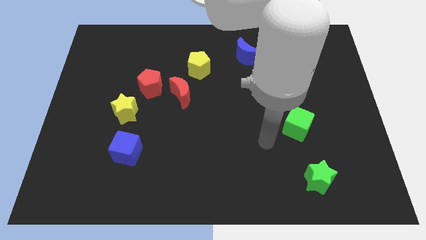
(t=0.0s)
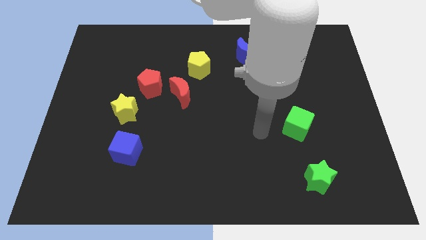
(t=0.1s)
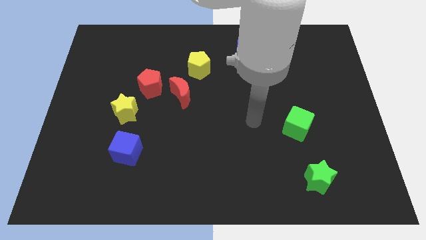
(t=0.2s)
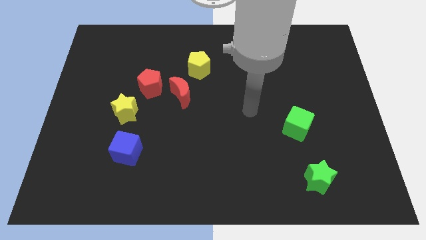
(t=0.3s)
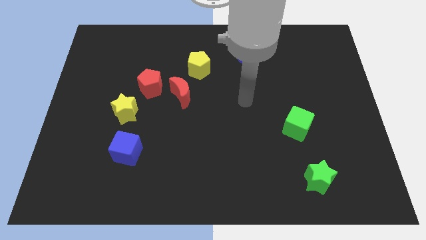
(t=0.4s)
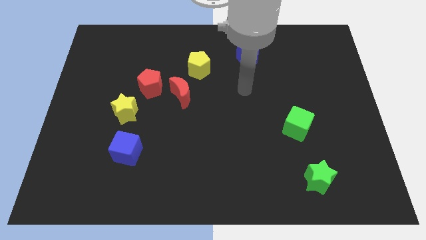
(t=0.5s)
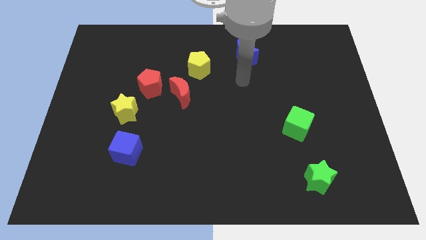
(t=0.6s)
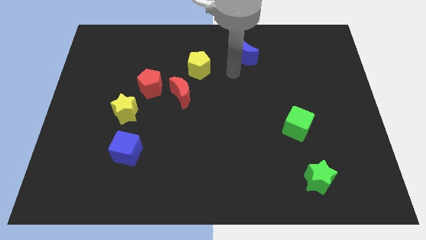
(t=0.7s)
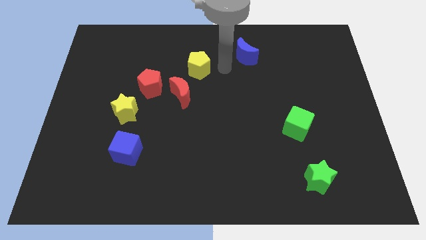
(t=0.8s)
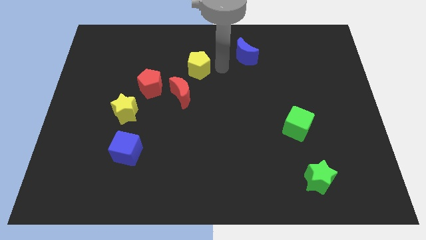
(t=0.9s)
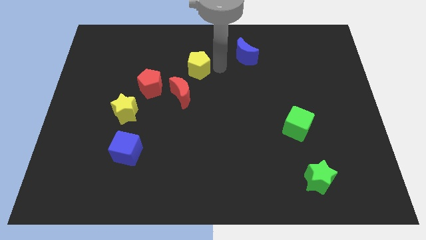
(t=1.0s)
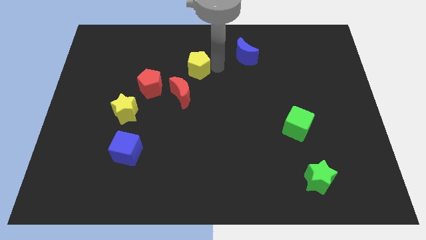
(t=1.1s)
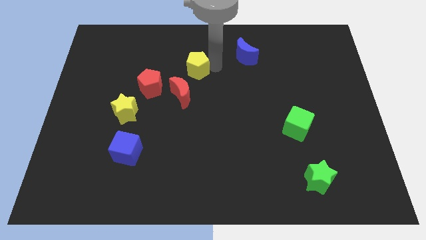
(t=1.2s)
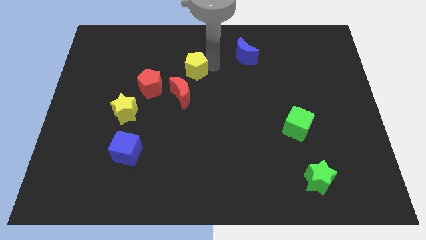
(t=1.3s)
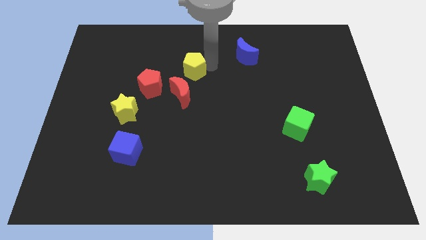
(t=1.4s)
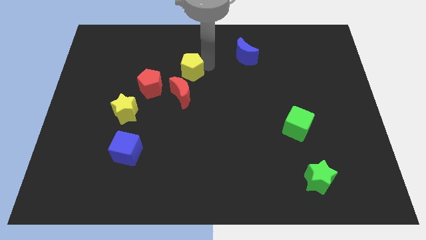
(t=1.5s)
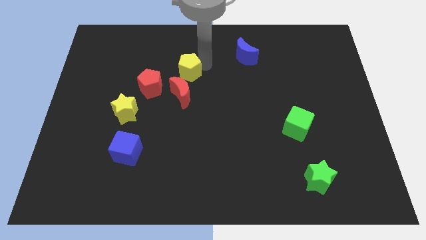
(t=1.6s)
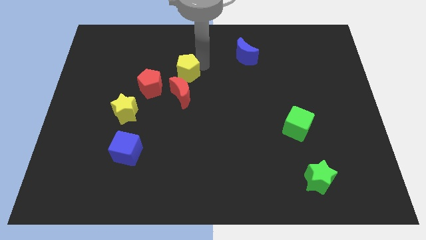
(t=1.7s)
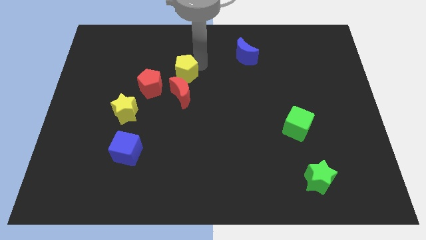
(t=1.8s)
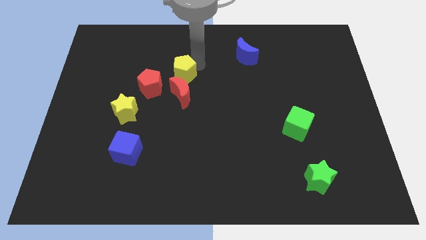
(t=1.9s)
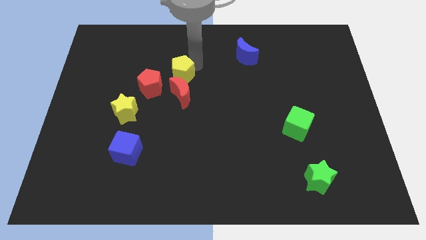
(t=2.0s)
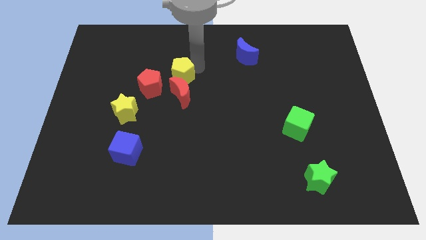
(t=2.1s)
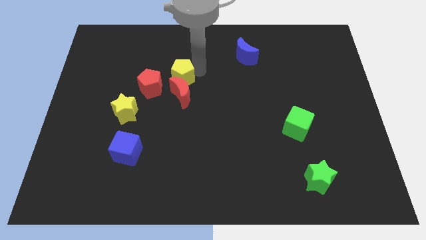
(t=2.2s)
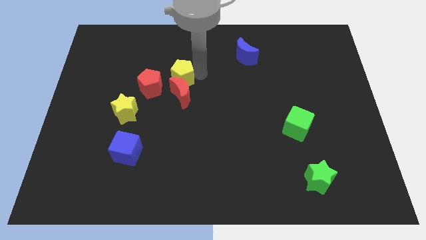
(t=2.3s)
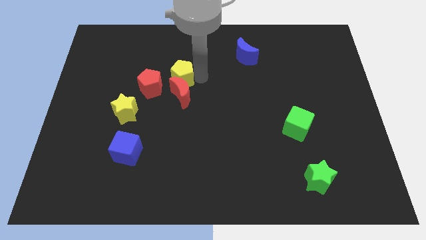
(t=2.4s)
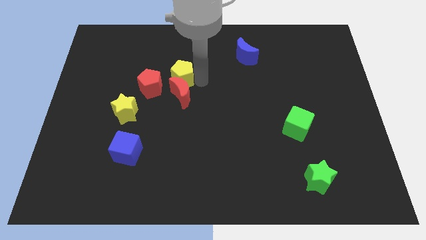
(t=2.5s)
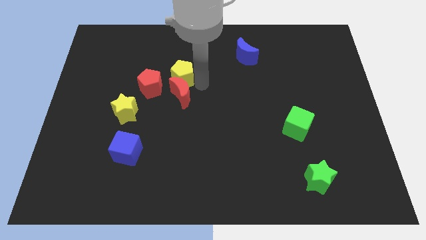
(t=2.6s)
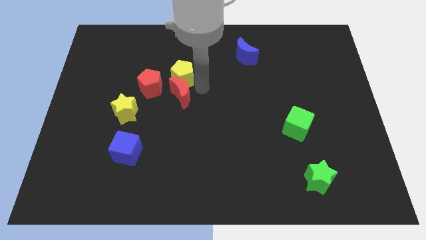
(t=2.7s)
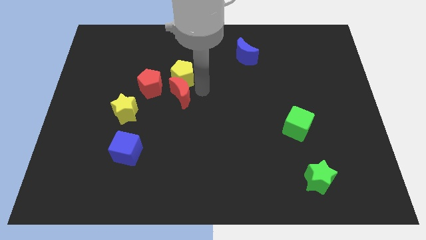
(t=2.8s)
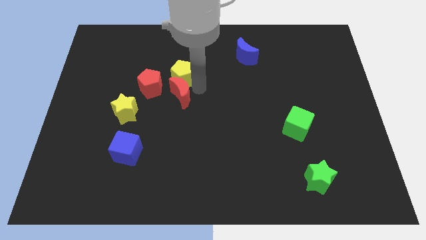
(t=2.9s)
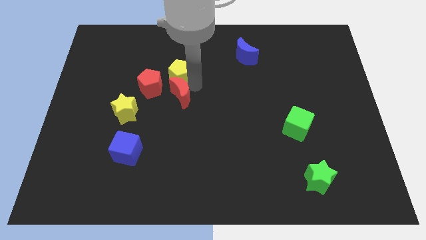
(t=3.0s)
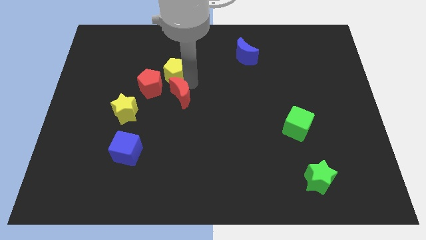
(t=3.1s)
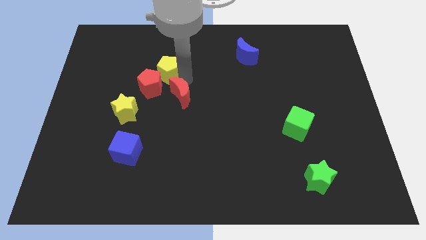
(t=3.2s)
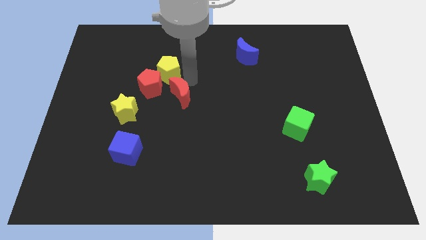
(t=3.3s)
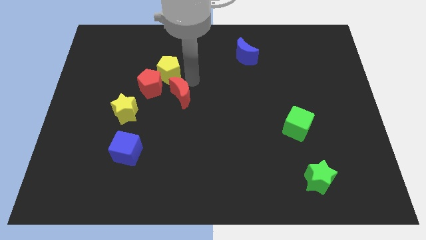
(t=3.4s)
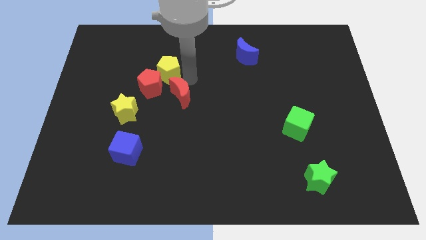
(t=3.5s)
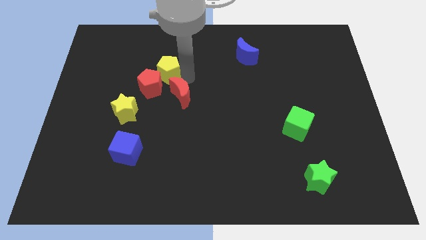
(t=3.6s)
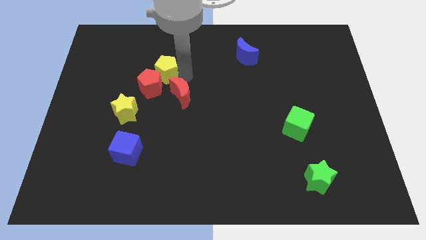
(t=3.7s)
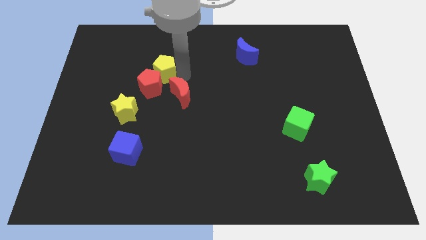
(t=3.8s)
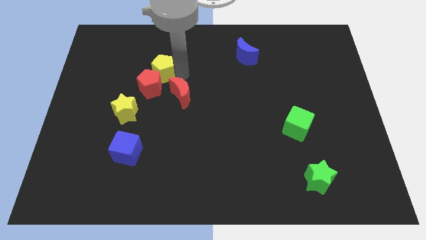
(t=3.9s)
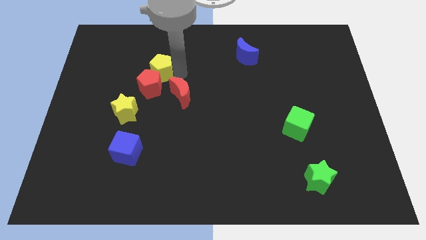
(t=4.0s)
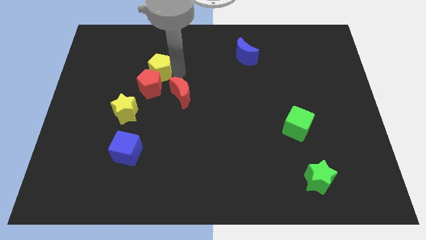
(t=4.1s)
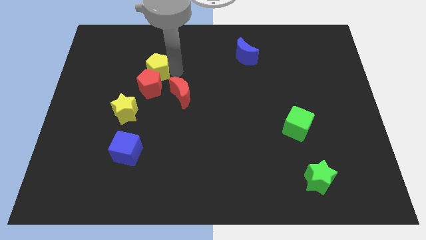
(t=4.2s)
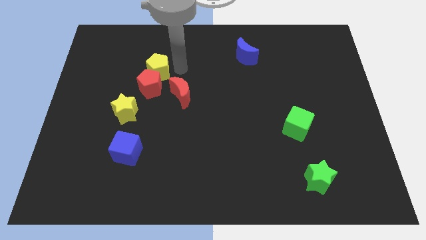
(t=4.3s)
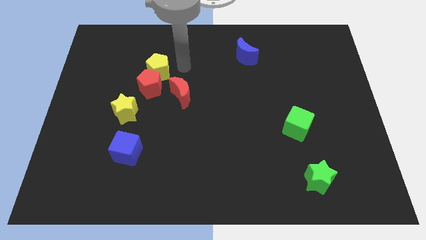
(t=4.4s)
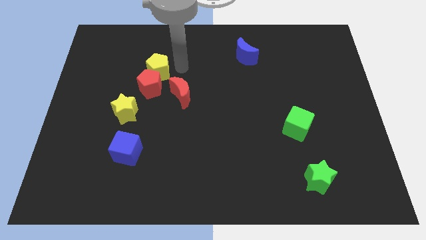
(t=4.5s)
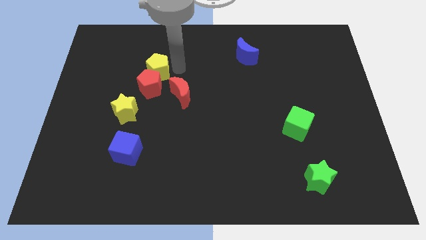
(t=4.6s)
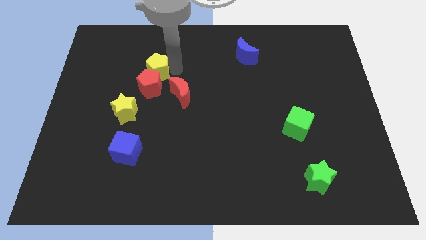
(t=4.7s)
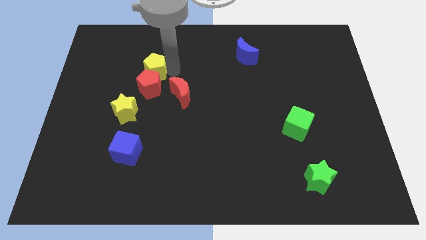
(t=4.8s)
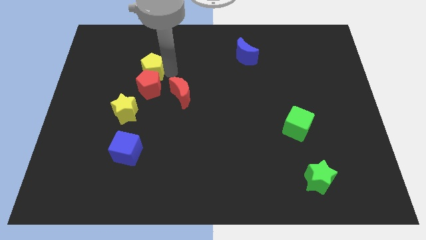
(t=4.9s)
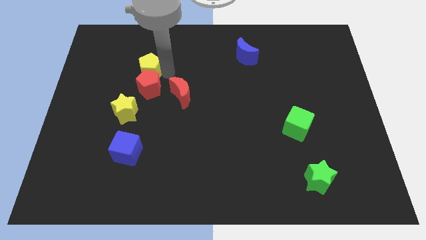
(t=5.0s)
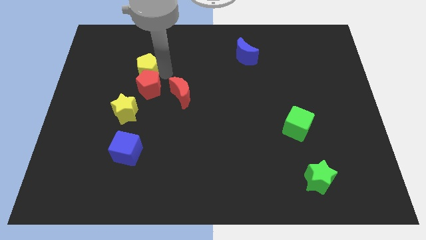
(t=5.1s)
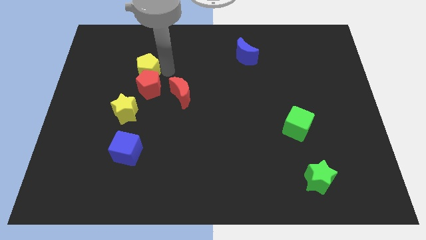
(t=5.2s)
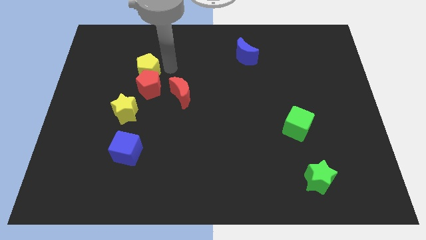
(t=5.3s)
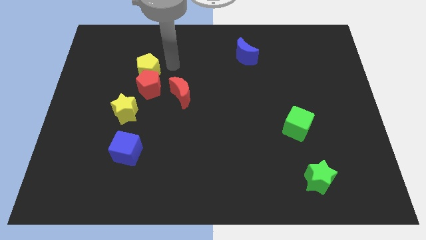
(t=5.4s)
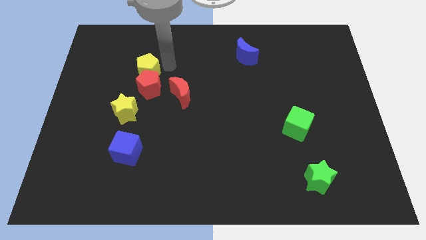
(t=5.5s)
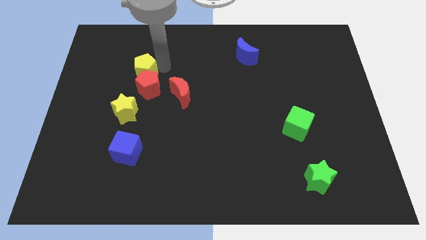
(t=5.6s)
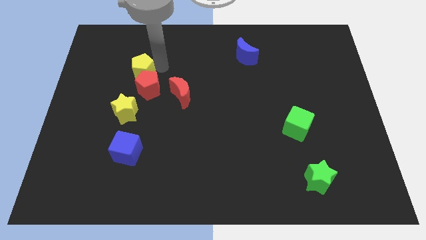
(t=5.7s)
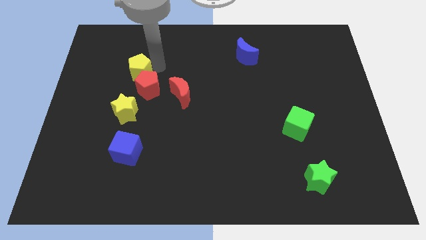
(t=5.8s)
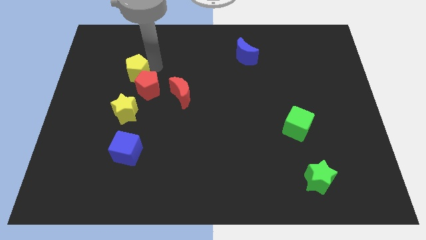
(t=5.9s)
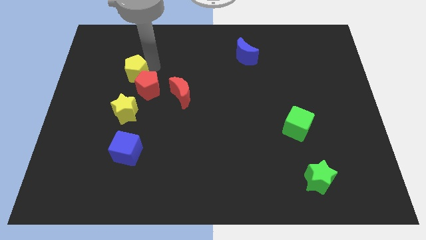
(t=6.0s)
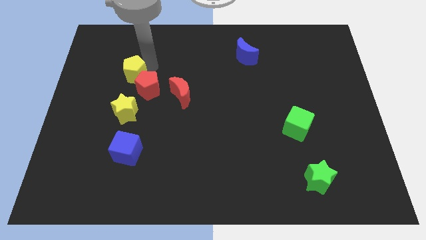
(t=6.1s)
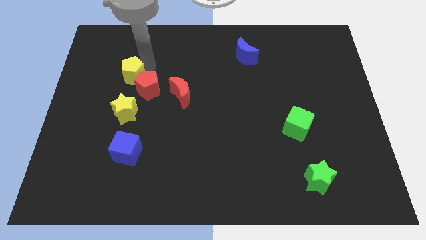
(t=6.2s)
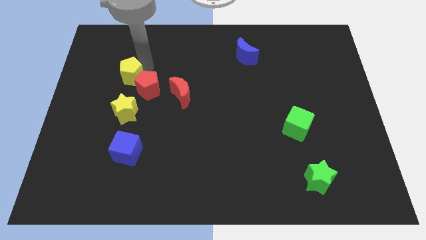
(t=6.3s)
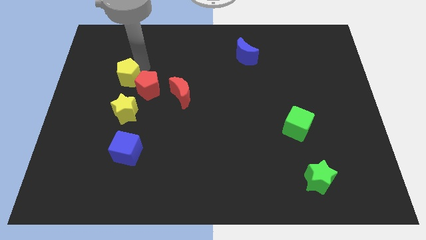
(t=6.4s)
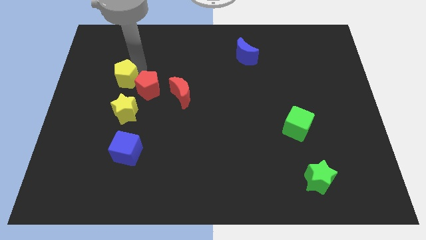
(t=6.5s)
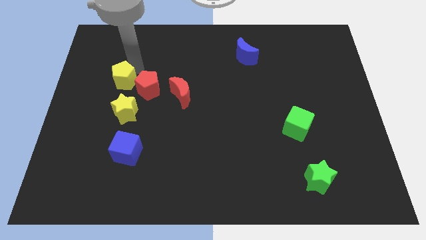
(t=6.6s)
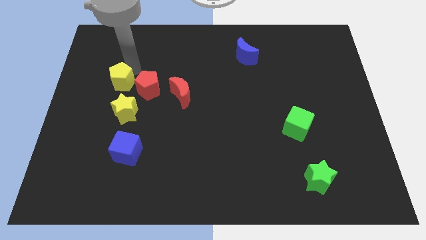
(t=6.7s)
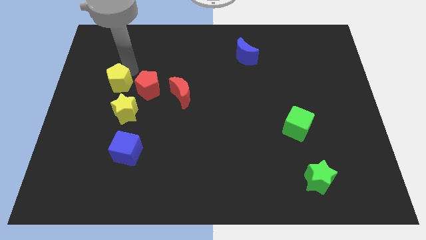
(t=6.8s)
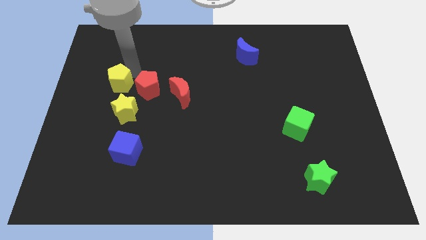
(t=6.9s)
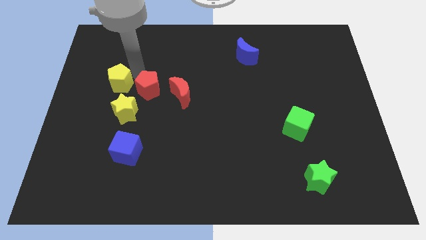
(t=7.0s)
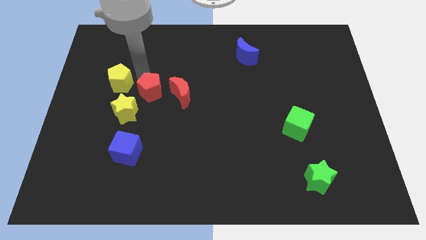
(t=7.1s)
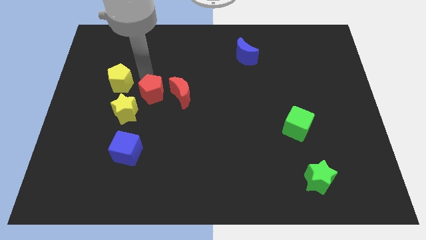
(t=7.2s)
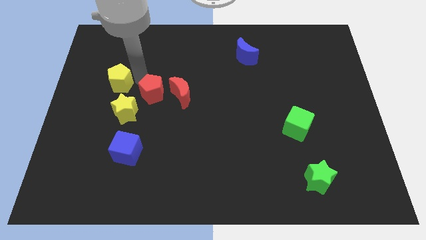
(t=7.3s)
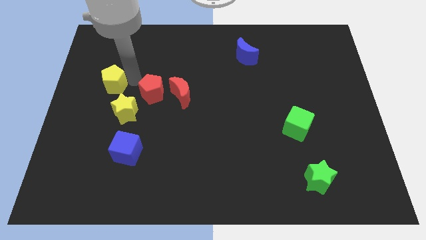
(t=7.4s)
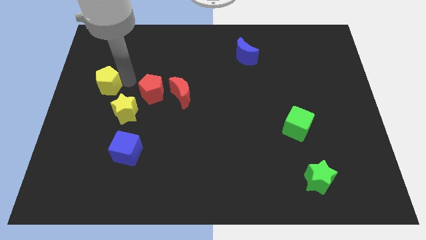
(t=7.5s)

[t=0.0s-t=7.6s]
put the yellow pentagon to the left side

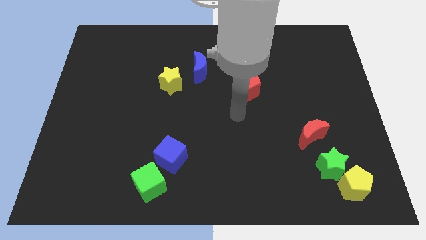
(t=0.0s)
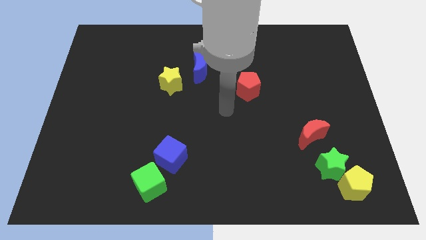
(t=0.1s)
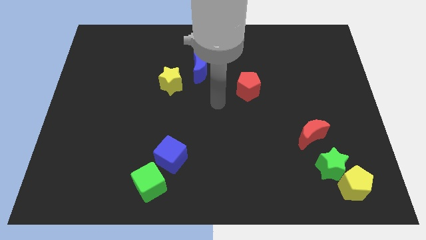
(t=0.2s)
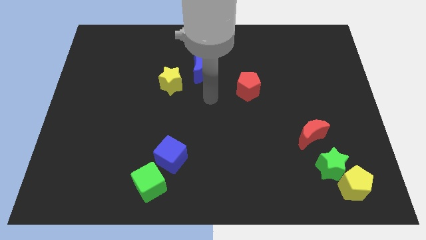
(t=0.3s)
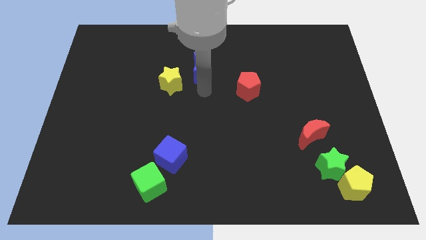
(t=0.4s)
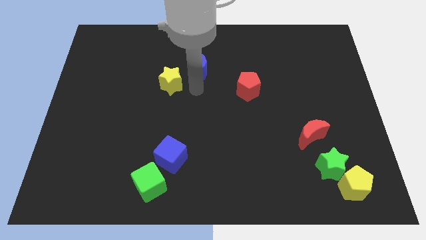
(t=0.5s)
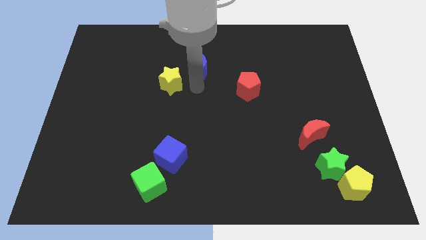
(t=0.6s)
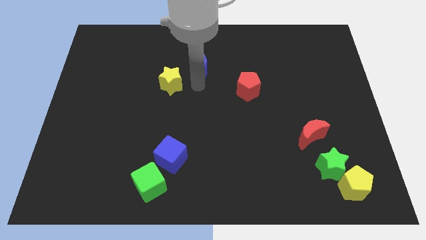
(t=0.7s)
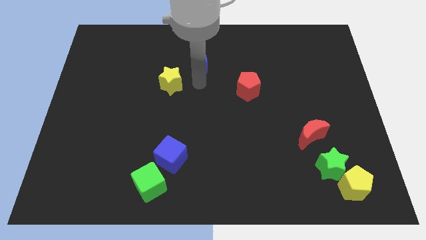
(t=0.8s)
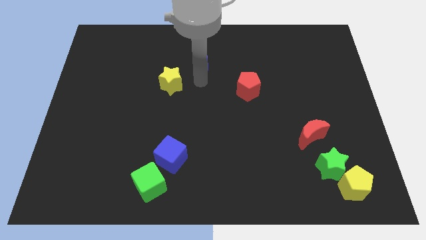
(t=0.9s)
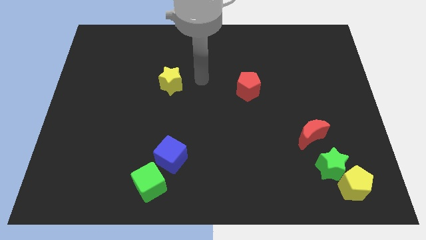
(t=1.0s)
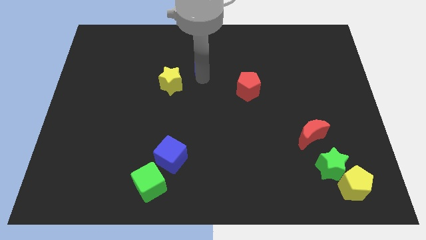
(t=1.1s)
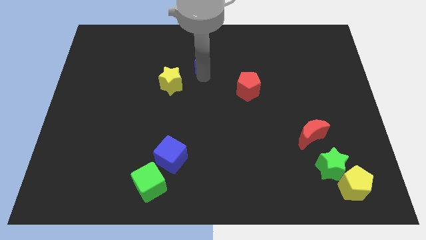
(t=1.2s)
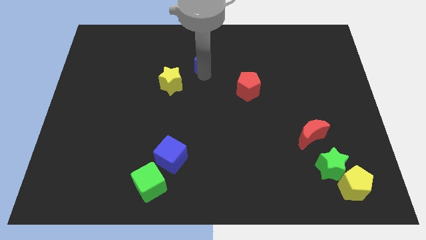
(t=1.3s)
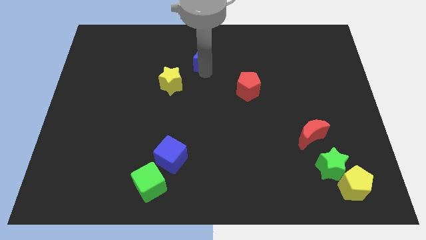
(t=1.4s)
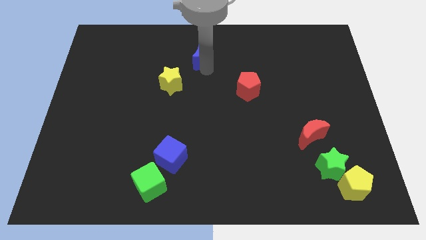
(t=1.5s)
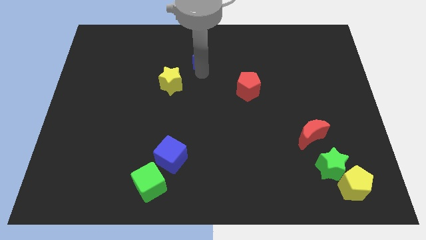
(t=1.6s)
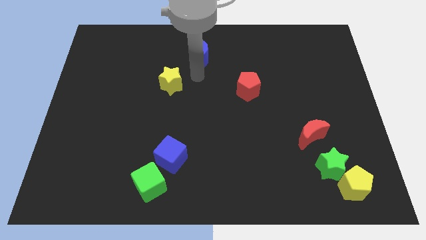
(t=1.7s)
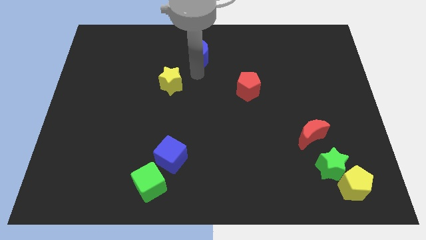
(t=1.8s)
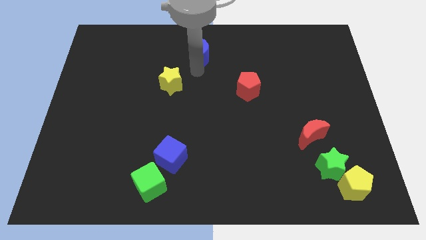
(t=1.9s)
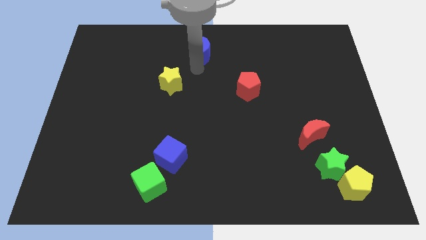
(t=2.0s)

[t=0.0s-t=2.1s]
slide the blue moon to the top
